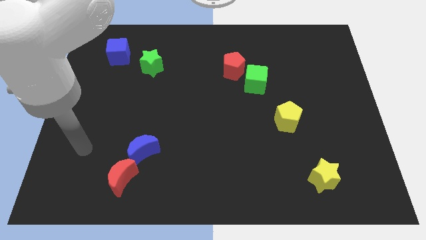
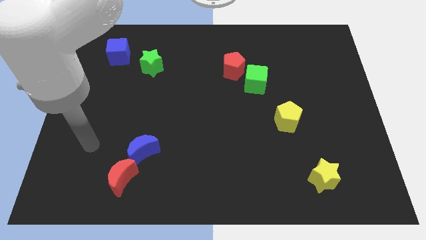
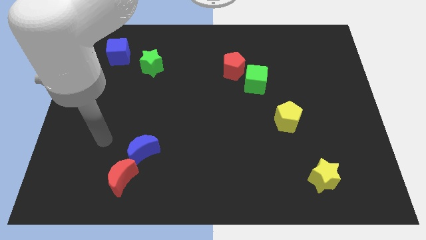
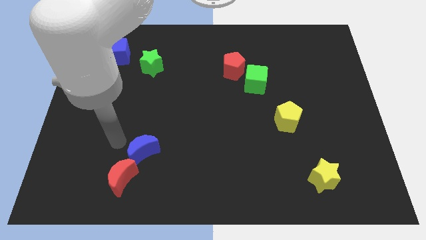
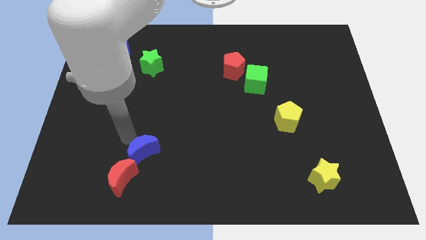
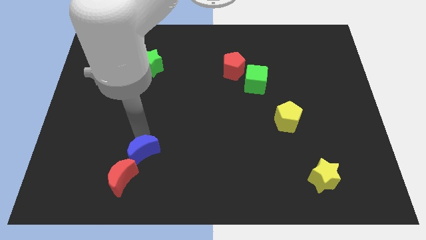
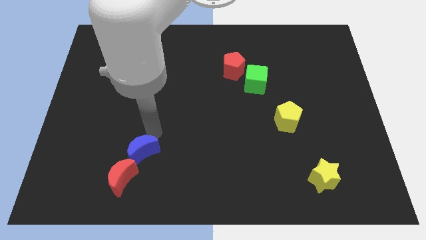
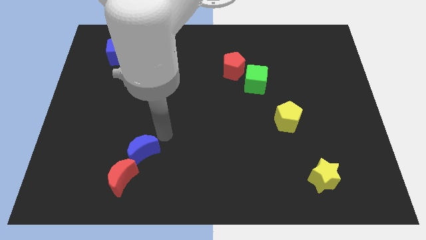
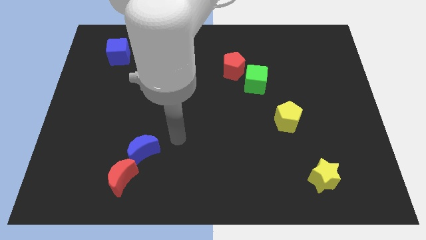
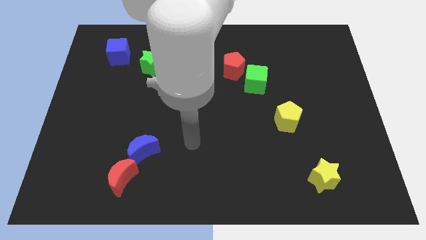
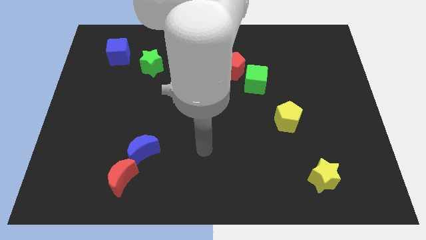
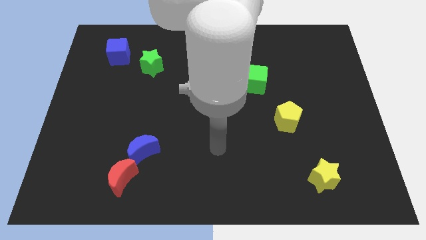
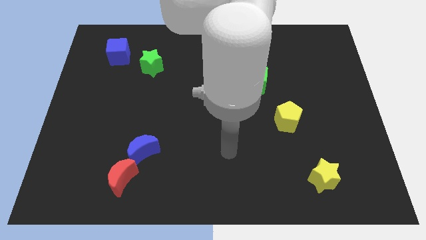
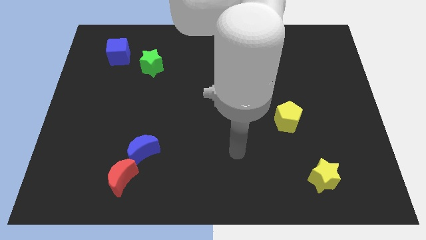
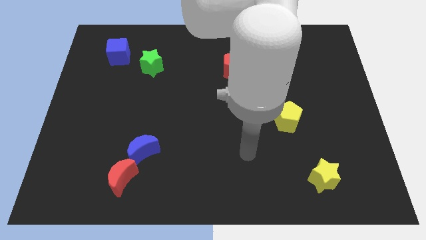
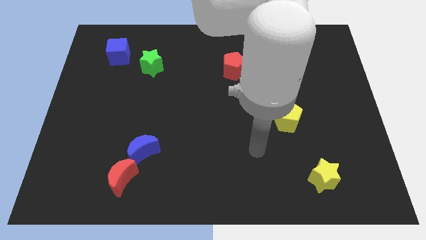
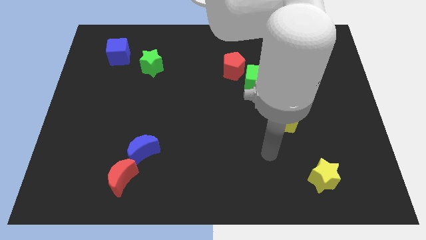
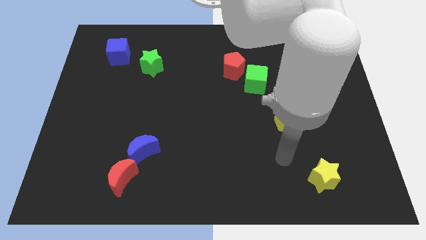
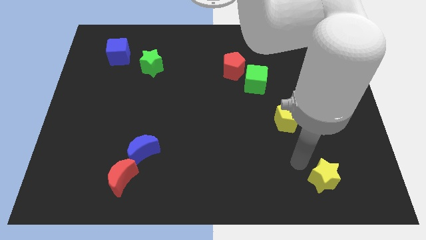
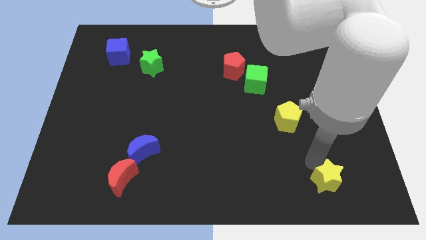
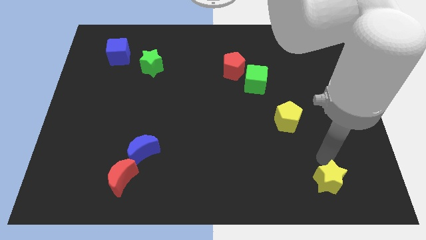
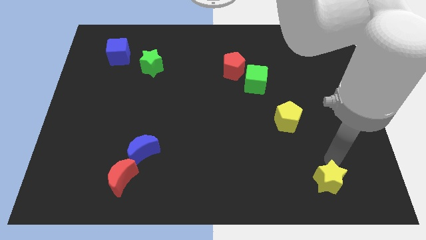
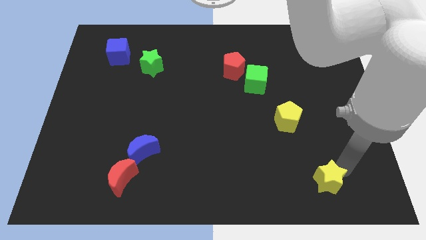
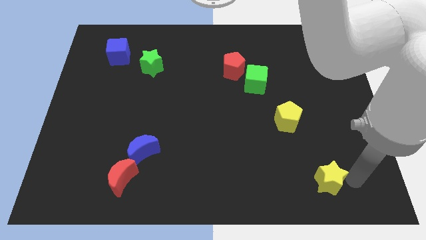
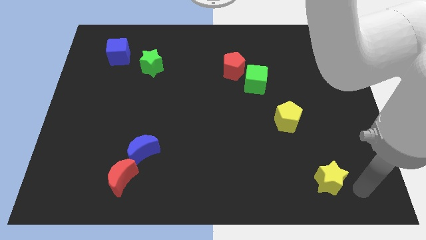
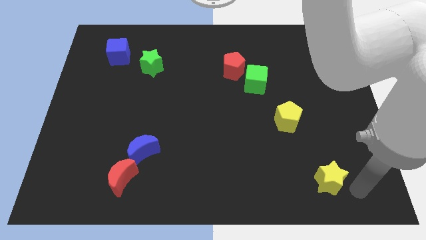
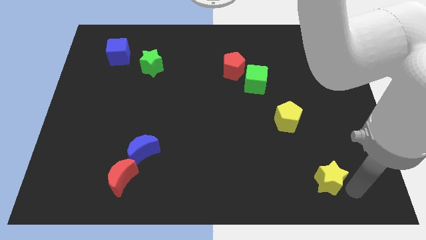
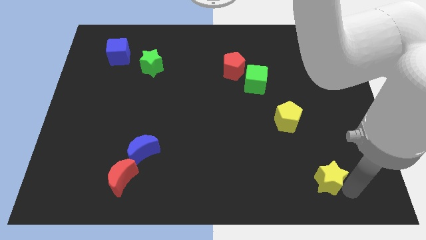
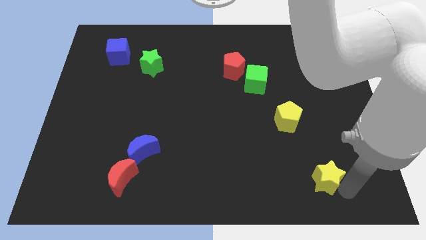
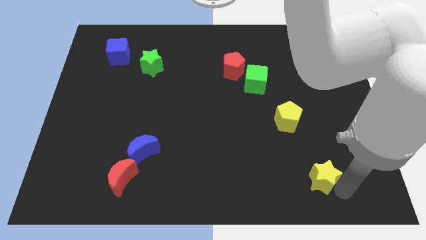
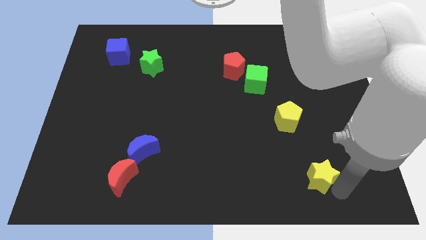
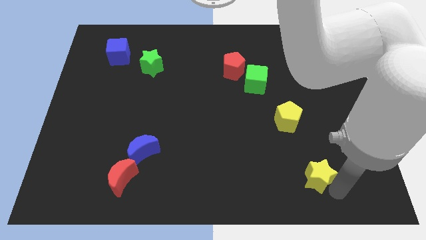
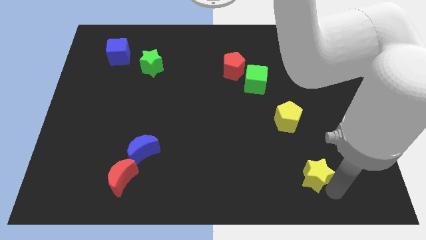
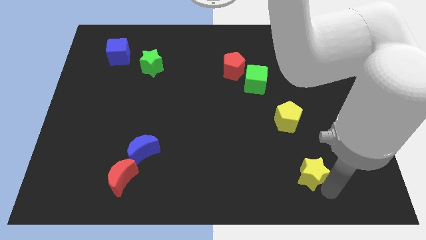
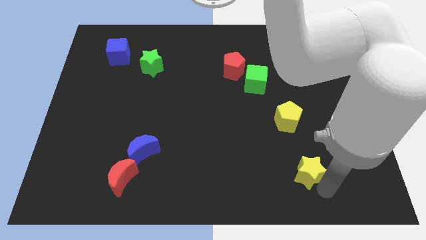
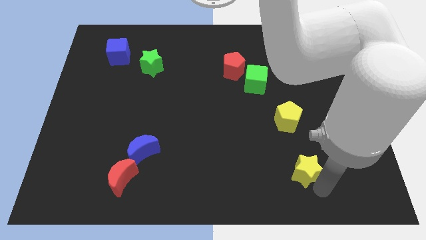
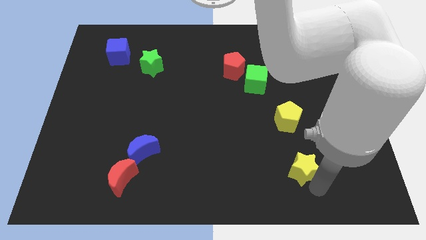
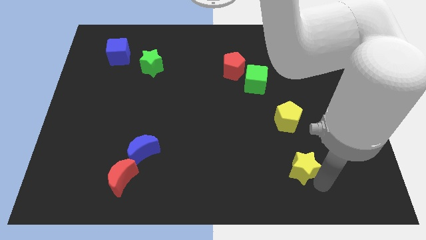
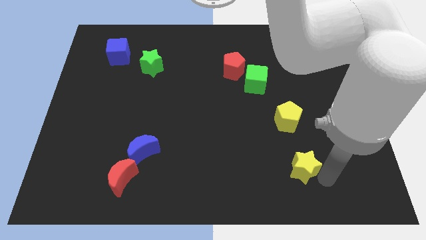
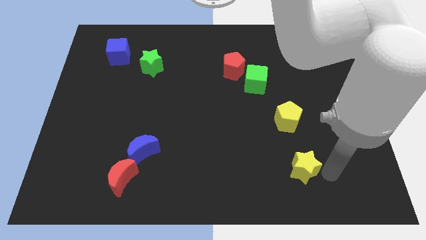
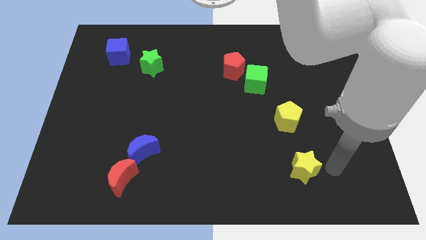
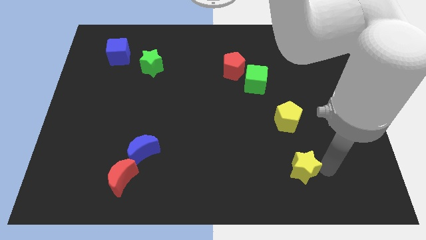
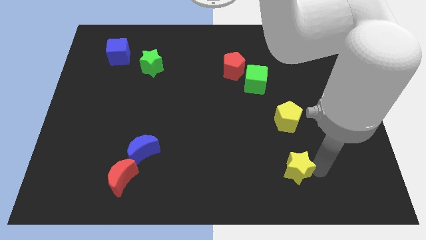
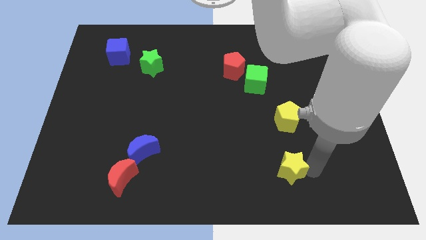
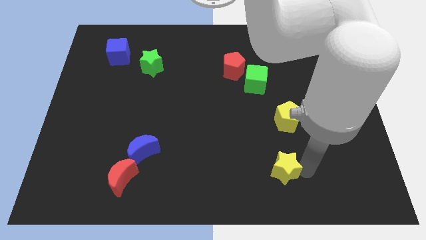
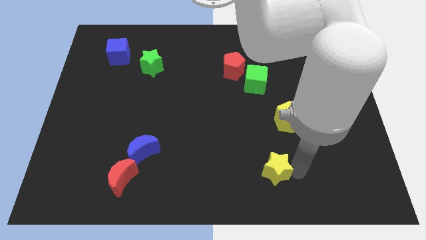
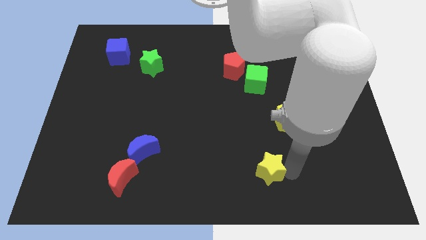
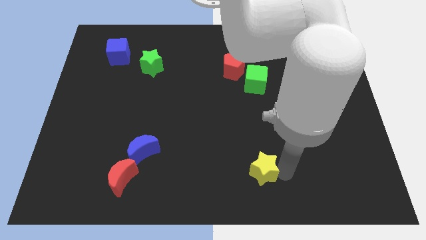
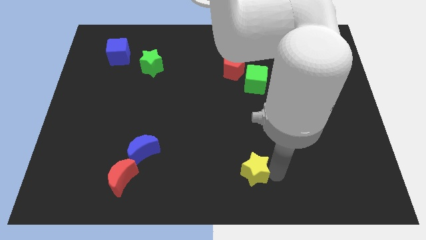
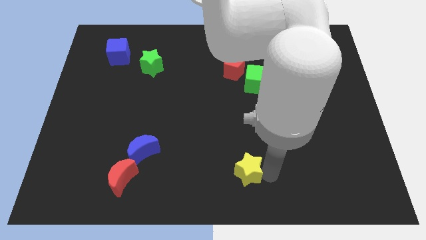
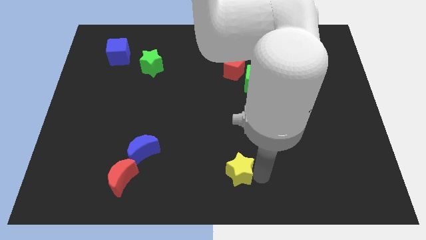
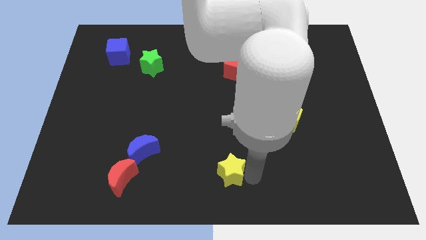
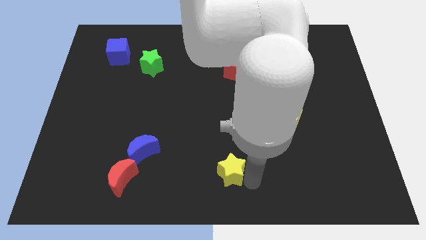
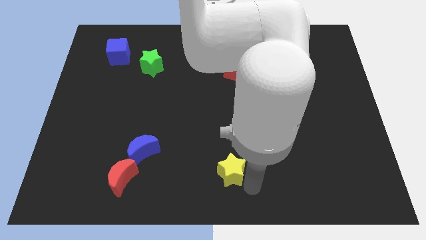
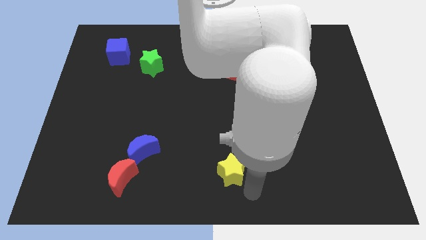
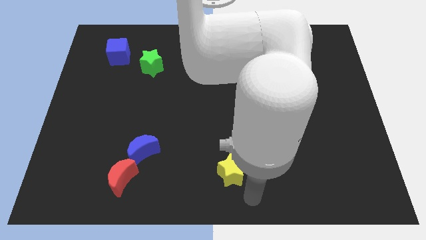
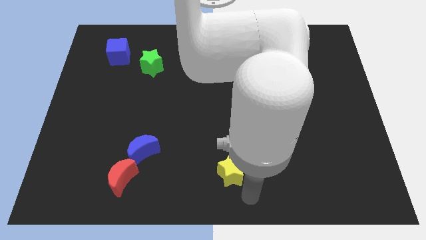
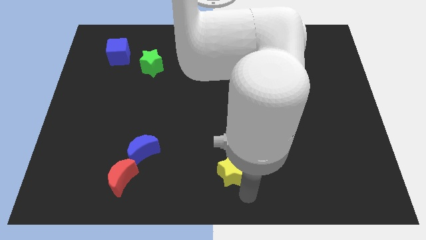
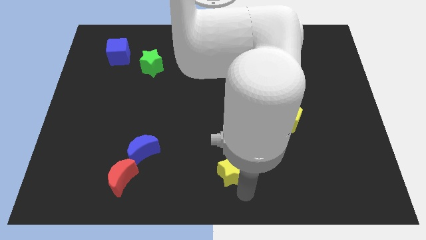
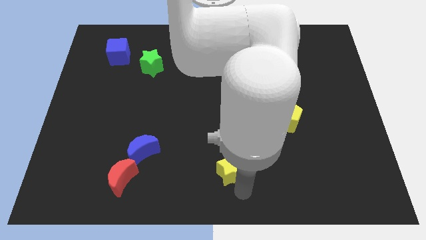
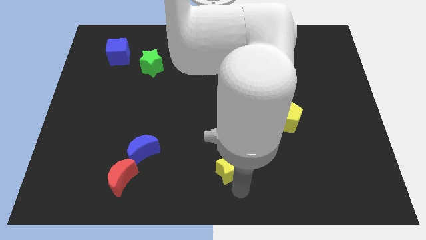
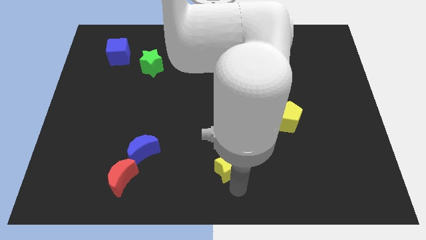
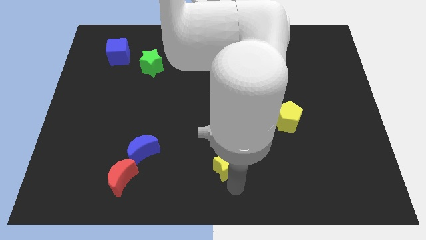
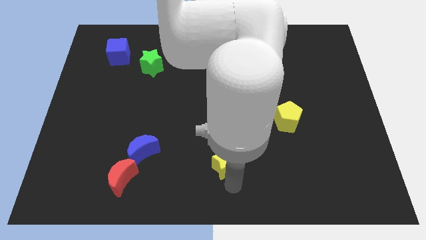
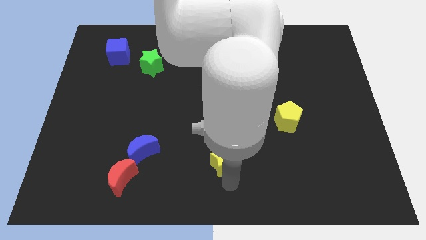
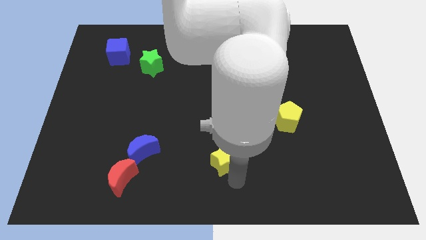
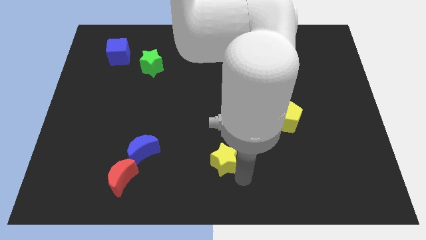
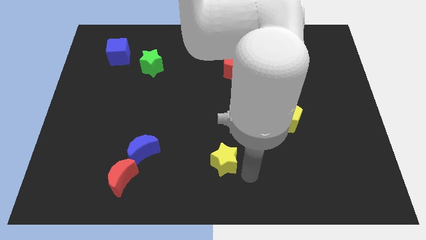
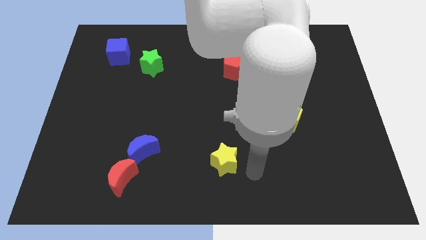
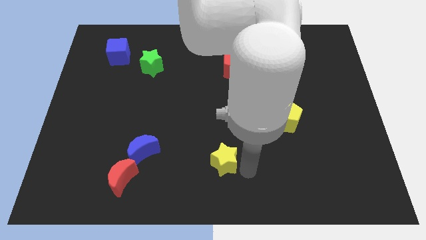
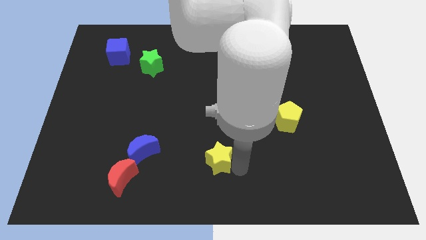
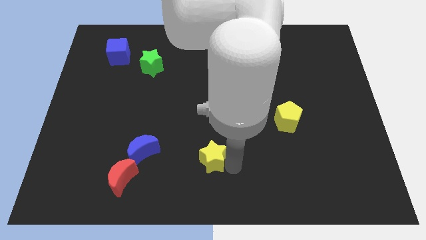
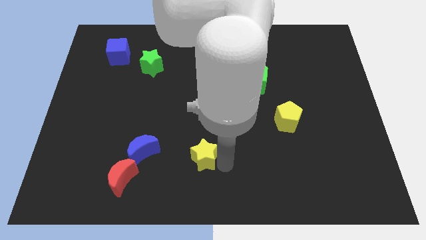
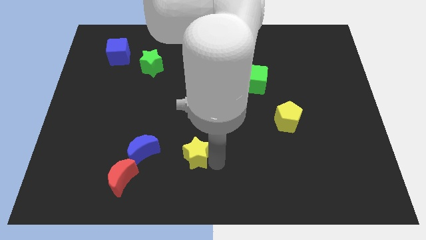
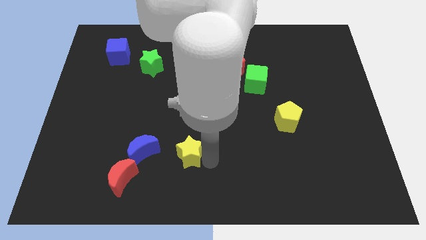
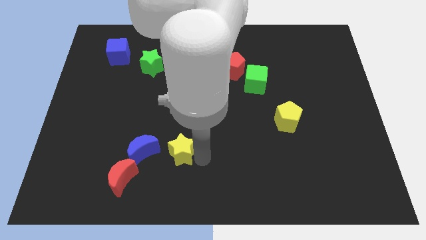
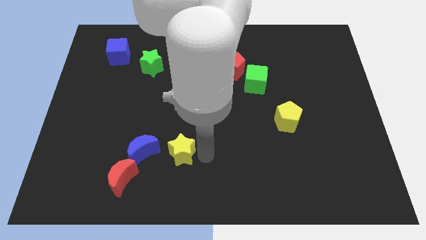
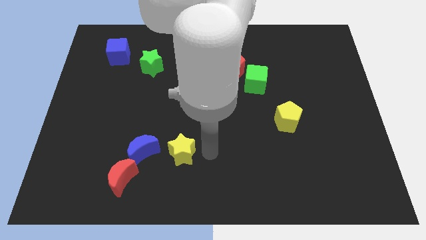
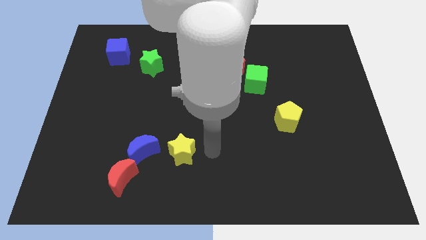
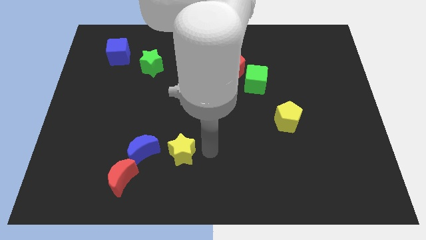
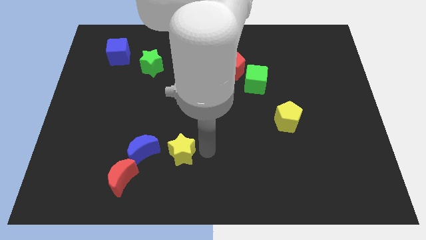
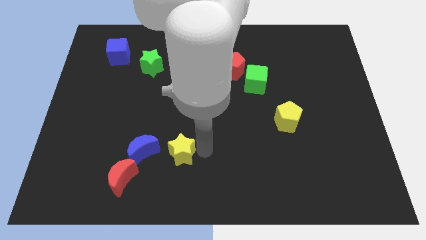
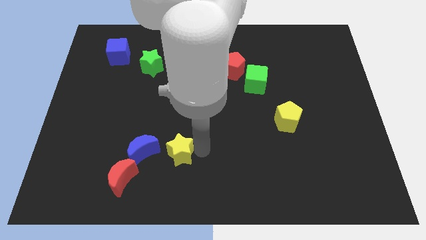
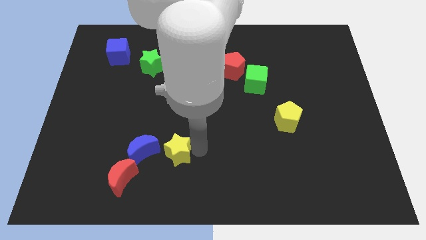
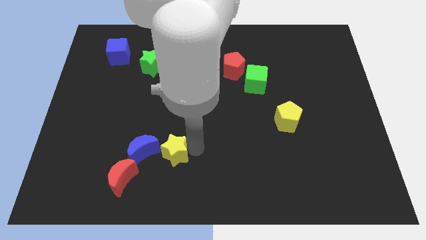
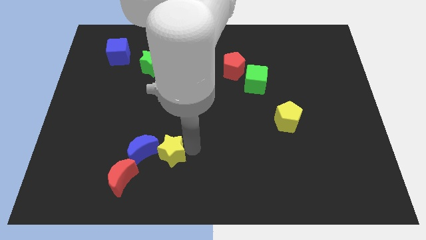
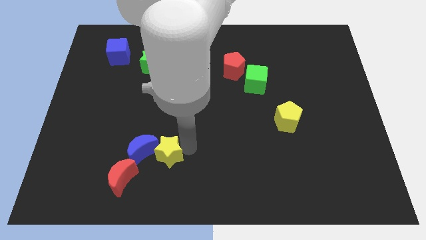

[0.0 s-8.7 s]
move the yellow star next to the blue moon
